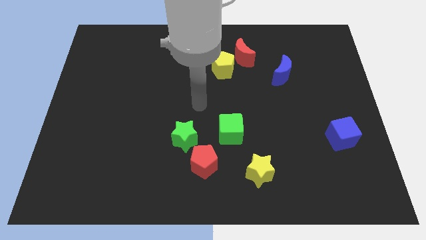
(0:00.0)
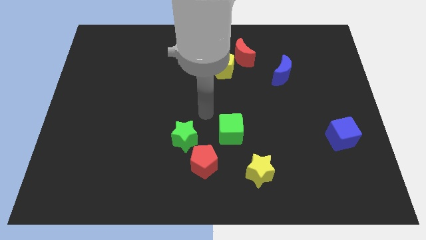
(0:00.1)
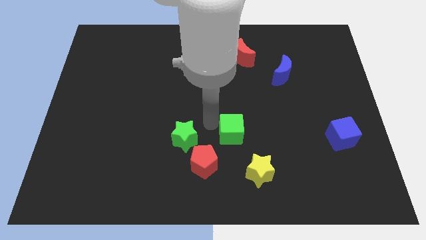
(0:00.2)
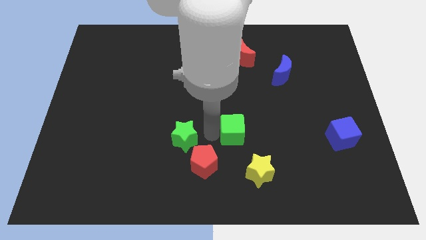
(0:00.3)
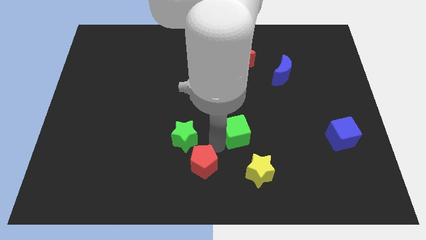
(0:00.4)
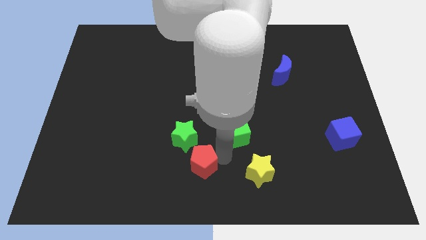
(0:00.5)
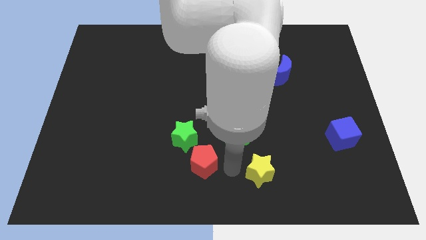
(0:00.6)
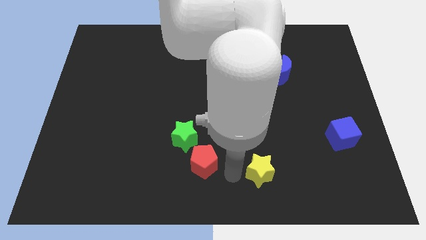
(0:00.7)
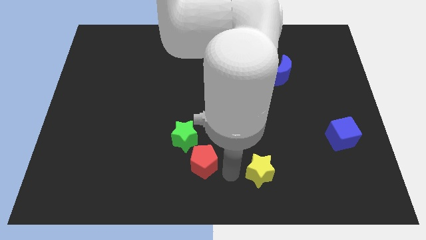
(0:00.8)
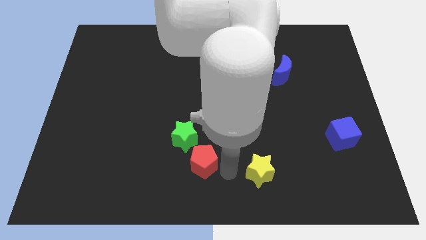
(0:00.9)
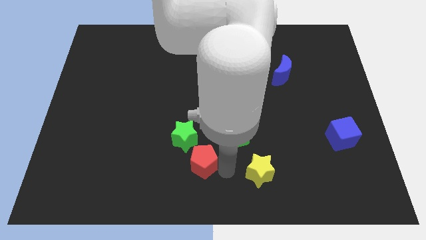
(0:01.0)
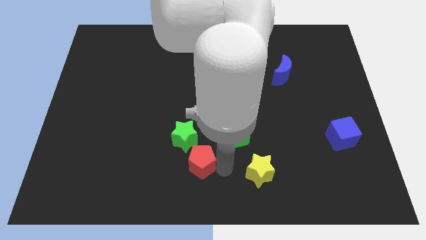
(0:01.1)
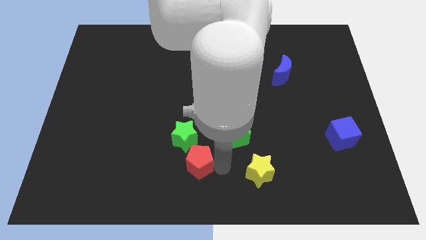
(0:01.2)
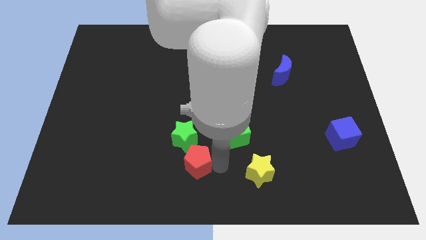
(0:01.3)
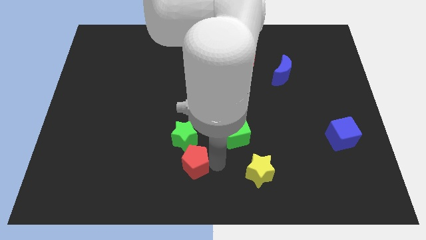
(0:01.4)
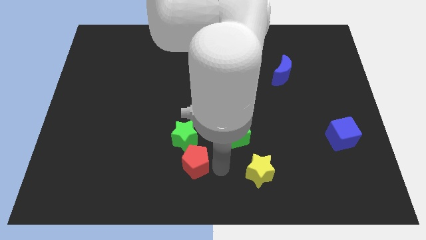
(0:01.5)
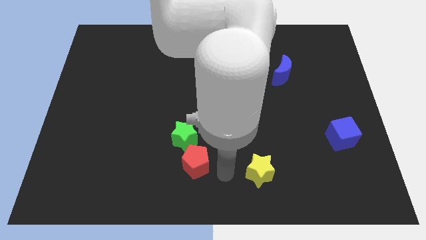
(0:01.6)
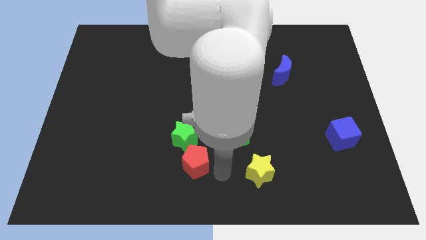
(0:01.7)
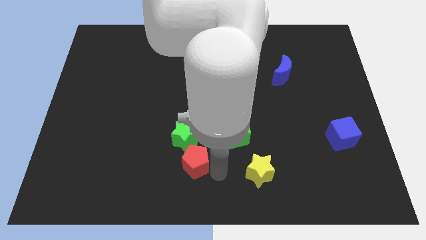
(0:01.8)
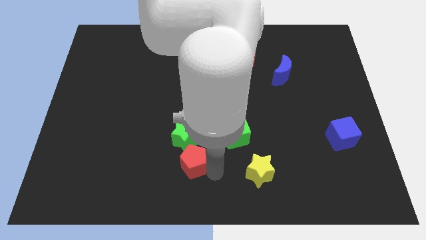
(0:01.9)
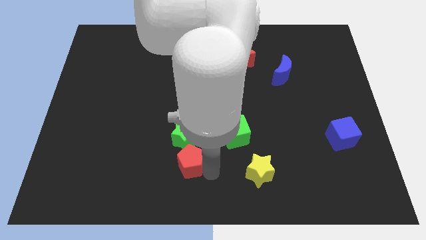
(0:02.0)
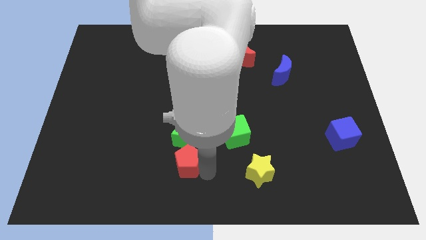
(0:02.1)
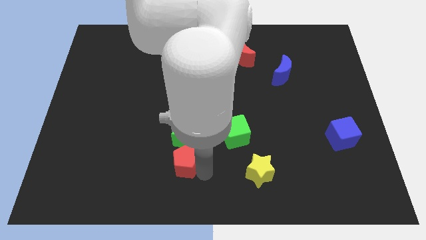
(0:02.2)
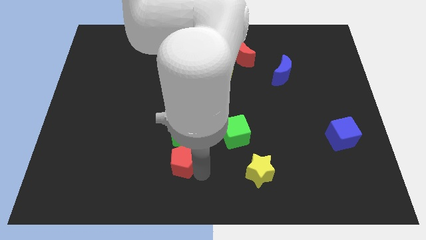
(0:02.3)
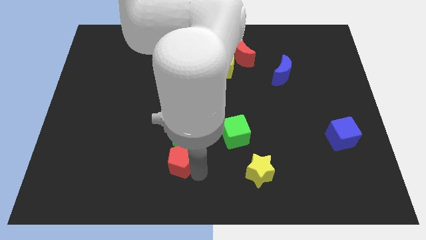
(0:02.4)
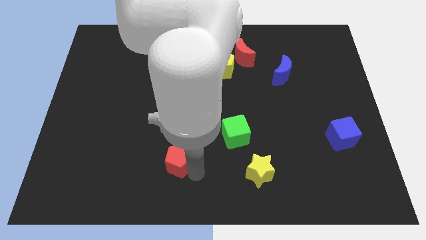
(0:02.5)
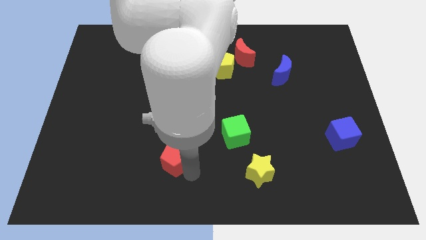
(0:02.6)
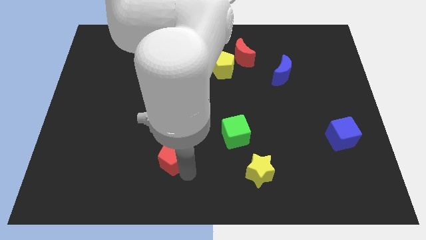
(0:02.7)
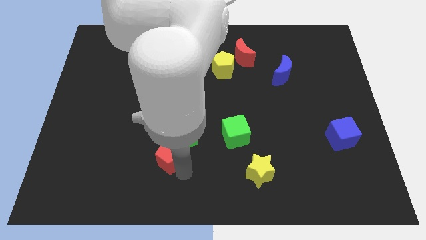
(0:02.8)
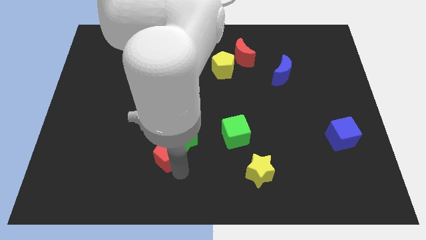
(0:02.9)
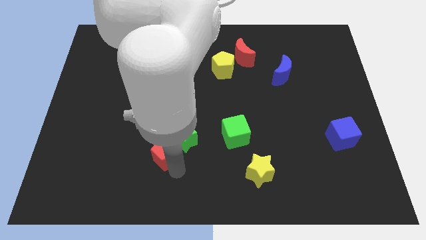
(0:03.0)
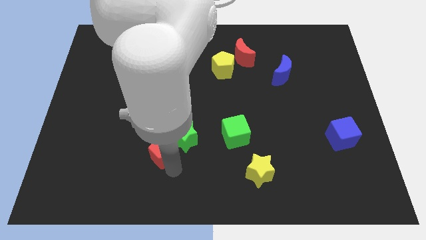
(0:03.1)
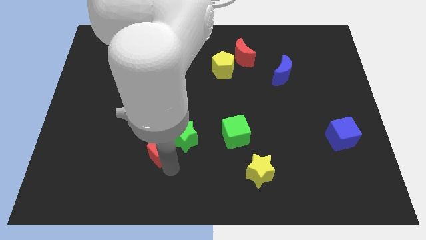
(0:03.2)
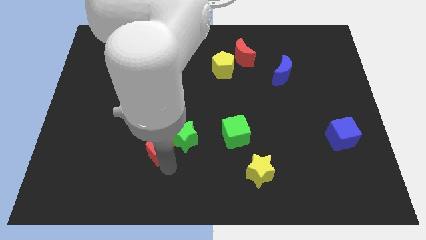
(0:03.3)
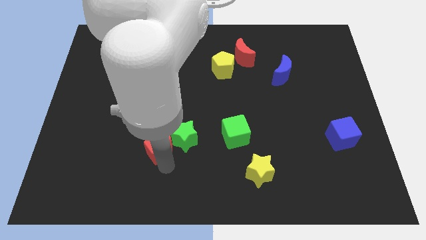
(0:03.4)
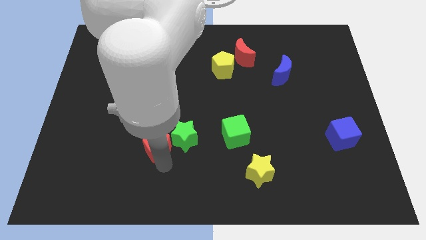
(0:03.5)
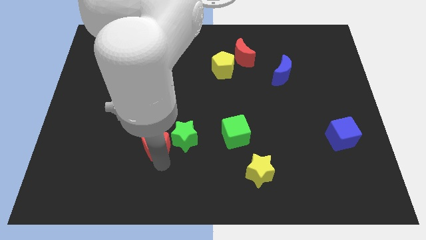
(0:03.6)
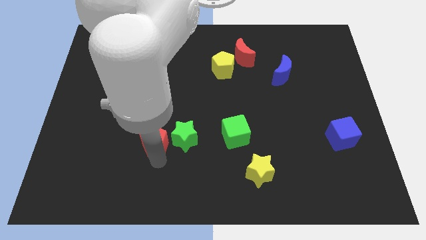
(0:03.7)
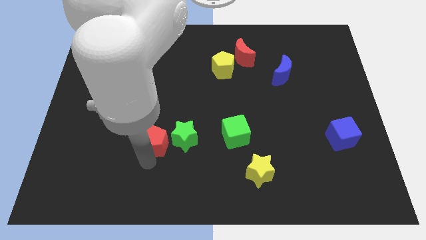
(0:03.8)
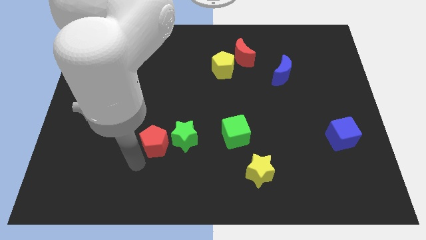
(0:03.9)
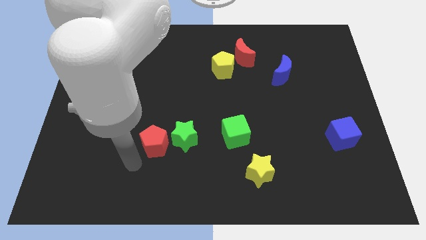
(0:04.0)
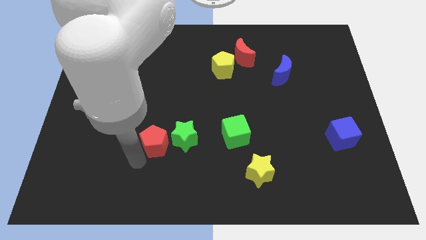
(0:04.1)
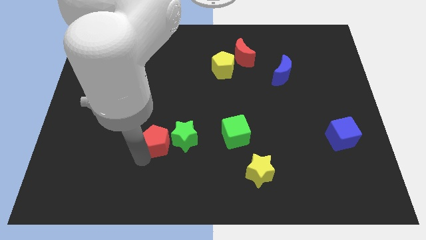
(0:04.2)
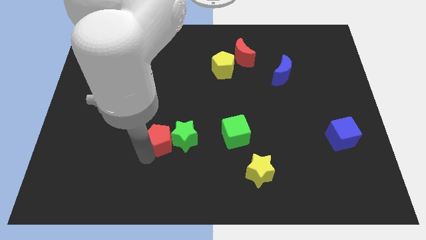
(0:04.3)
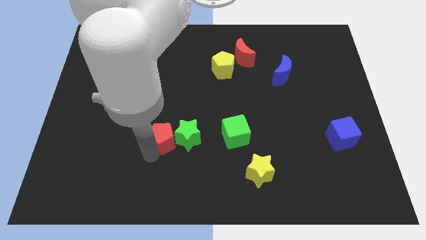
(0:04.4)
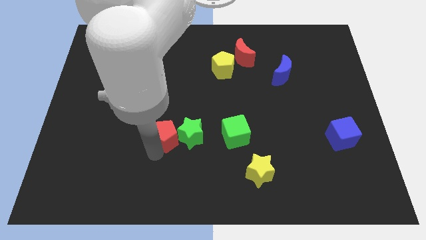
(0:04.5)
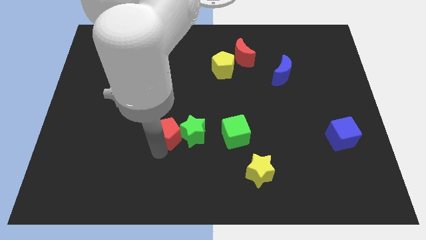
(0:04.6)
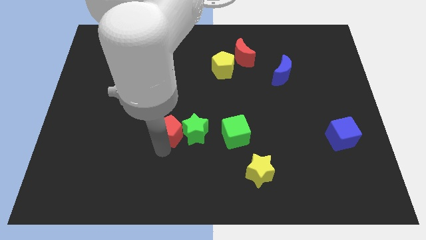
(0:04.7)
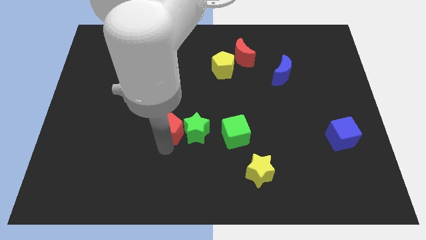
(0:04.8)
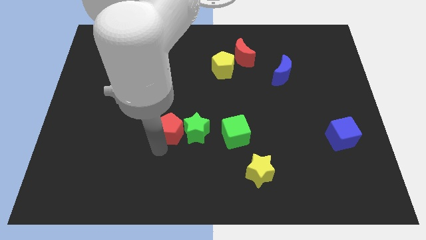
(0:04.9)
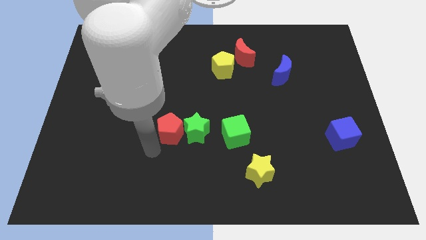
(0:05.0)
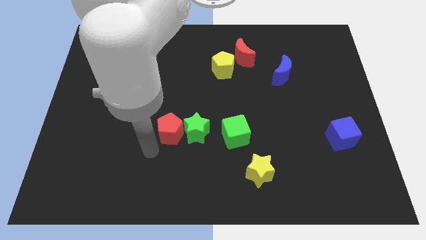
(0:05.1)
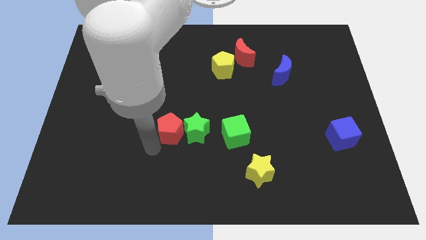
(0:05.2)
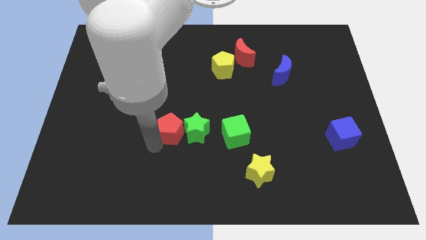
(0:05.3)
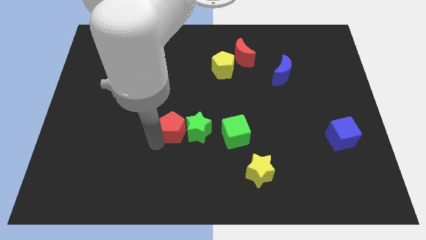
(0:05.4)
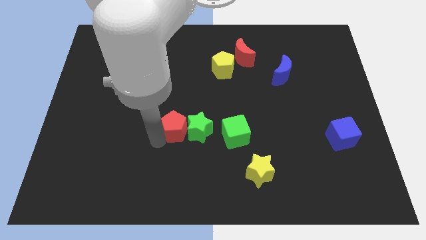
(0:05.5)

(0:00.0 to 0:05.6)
slide the red pentagon upwards a little

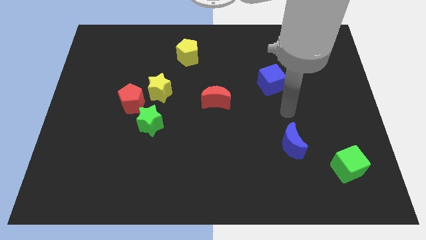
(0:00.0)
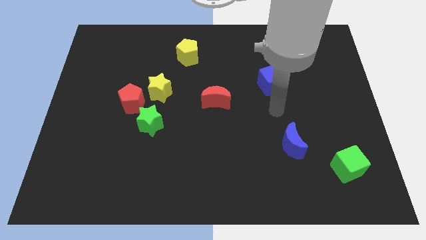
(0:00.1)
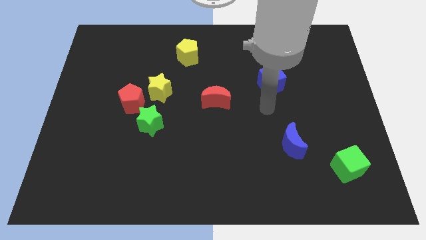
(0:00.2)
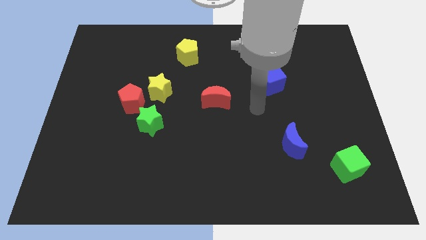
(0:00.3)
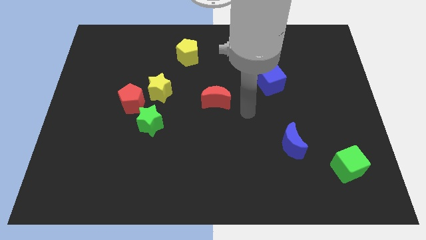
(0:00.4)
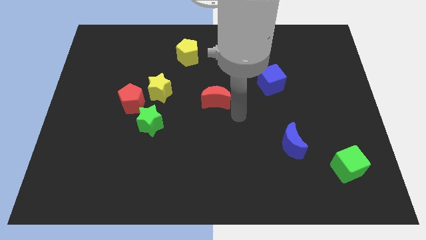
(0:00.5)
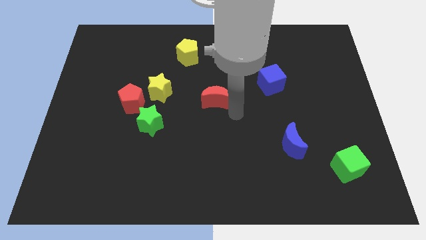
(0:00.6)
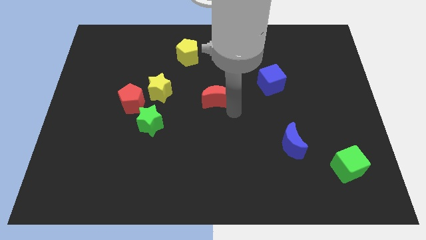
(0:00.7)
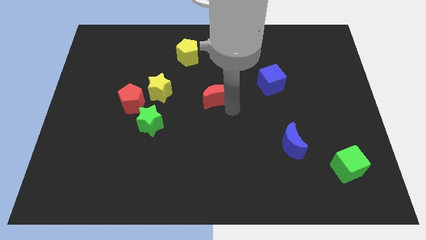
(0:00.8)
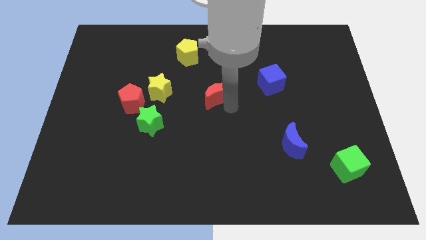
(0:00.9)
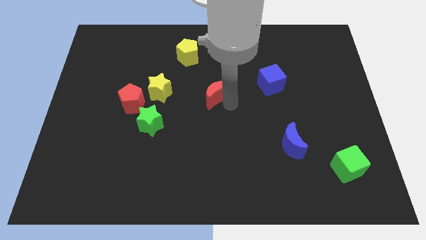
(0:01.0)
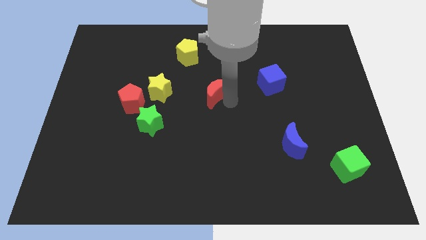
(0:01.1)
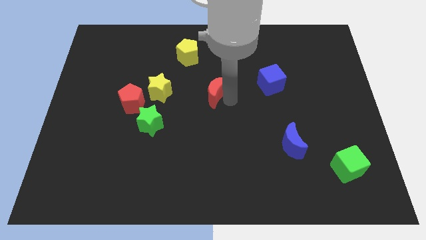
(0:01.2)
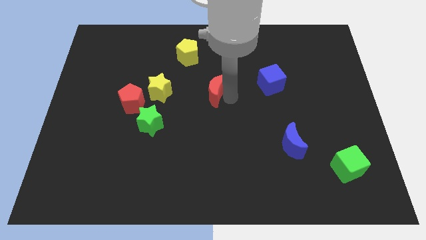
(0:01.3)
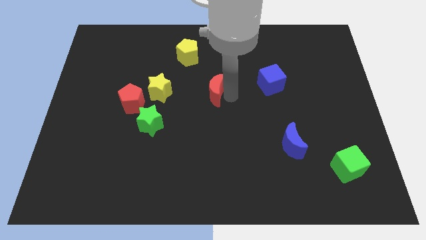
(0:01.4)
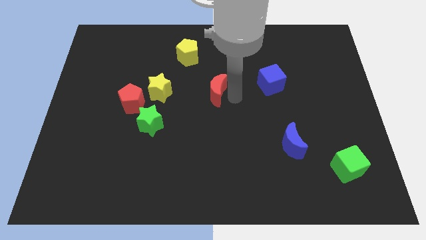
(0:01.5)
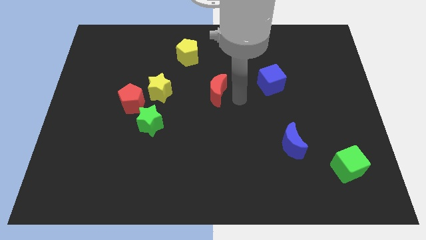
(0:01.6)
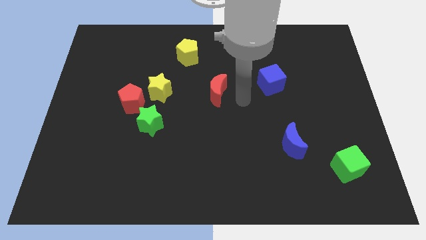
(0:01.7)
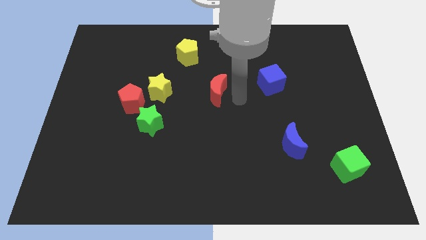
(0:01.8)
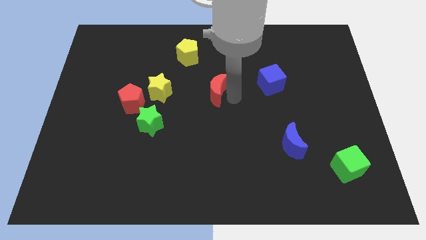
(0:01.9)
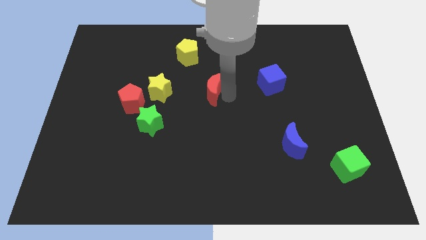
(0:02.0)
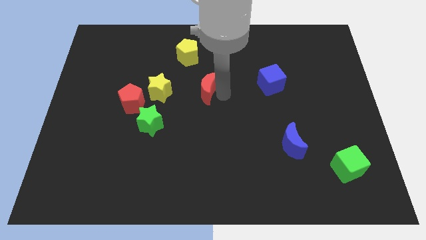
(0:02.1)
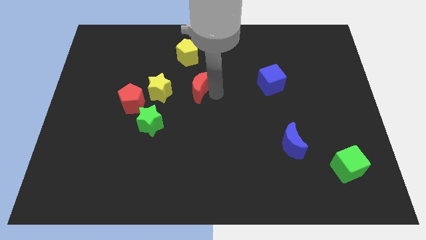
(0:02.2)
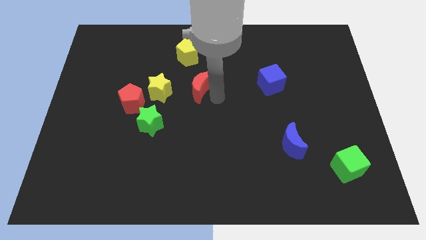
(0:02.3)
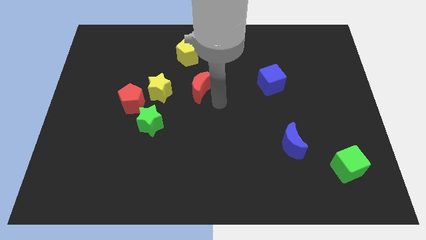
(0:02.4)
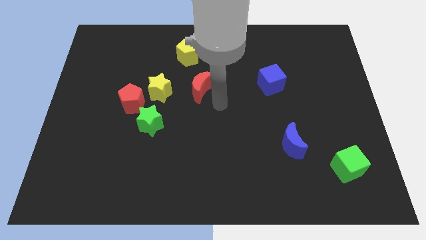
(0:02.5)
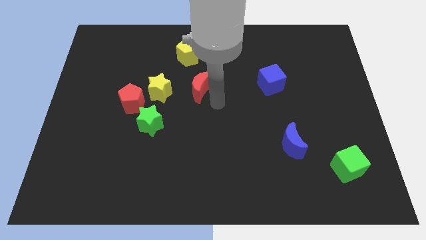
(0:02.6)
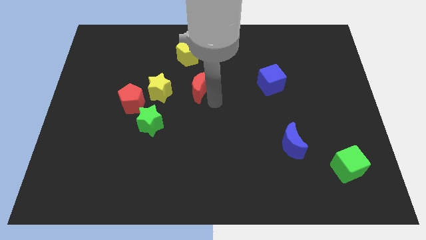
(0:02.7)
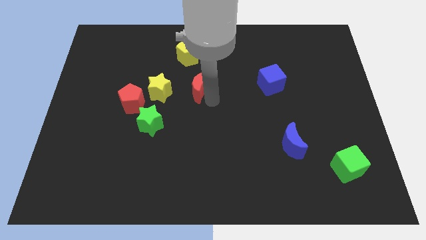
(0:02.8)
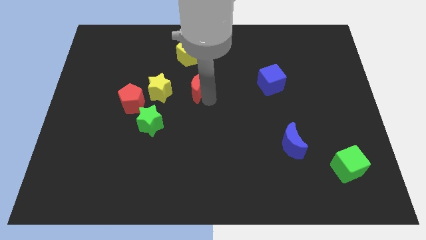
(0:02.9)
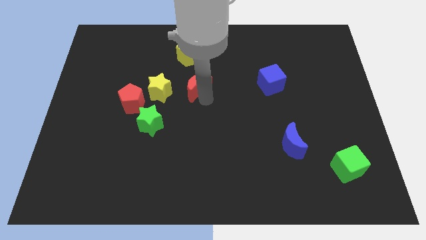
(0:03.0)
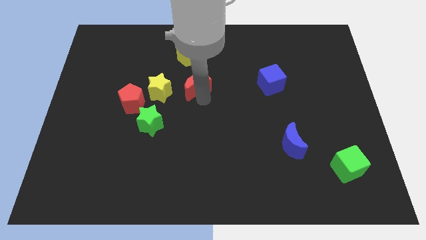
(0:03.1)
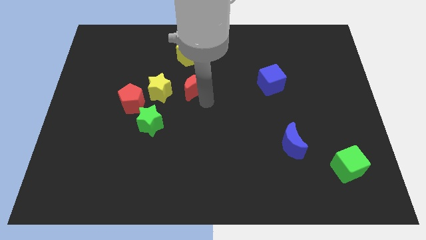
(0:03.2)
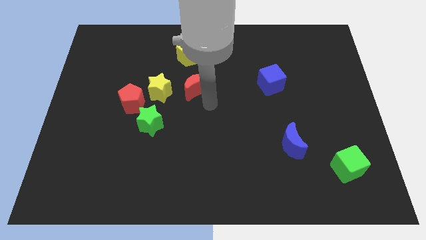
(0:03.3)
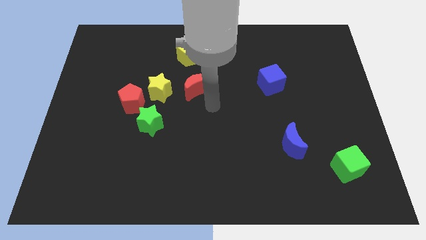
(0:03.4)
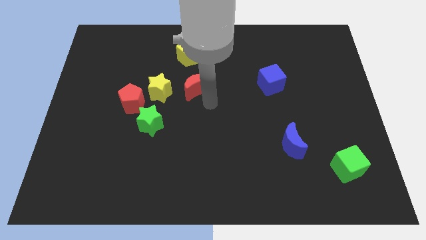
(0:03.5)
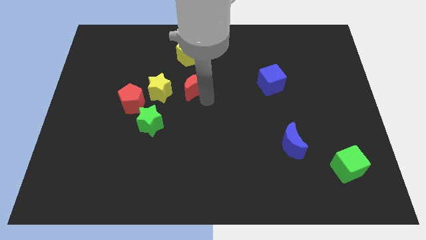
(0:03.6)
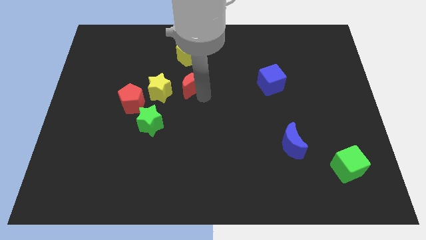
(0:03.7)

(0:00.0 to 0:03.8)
slide the red moon upwards and left diagonally slightly
